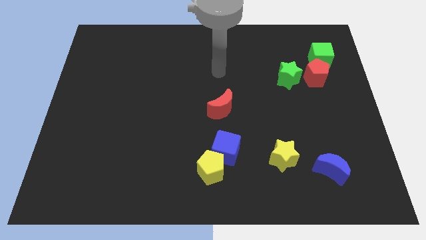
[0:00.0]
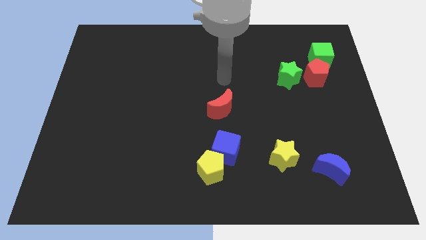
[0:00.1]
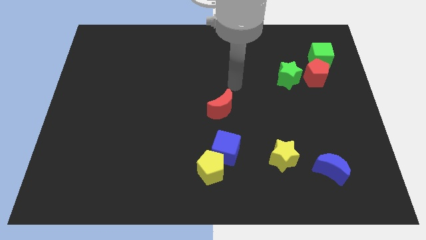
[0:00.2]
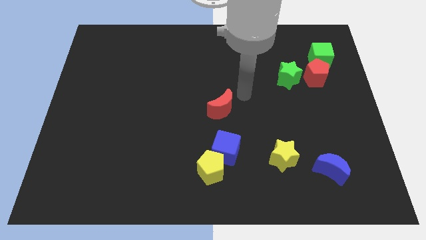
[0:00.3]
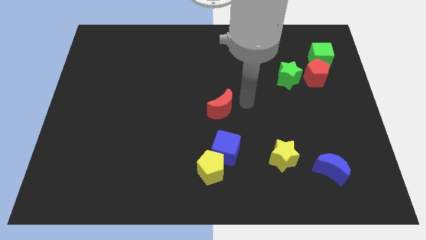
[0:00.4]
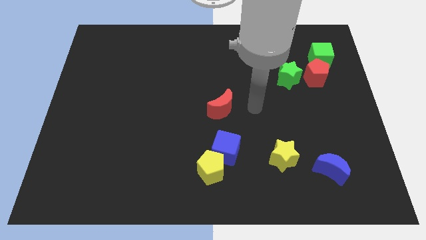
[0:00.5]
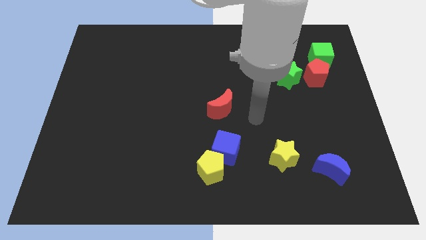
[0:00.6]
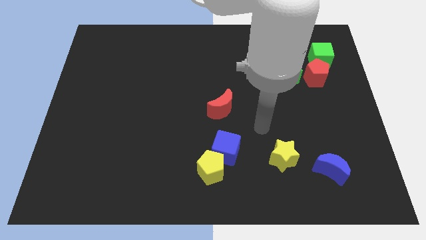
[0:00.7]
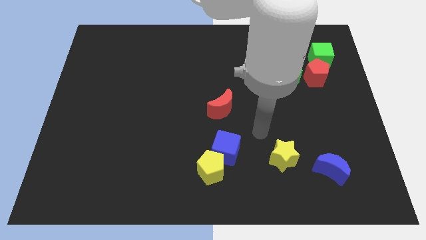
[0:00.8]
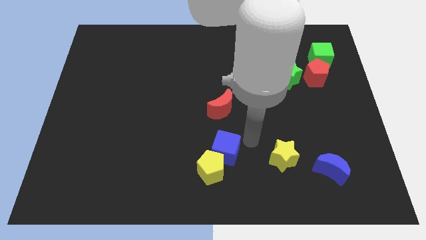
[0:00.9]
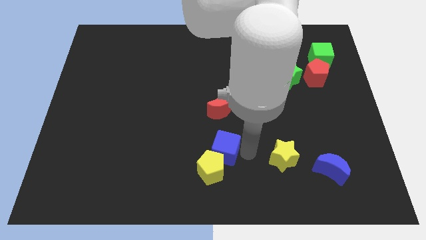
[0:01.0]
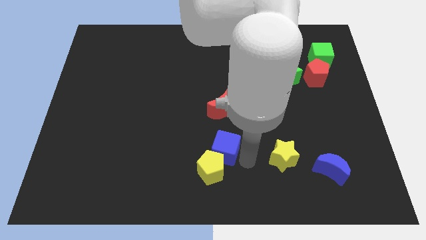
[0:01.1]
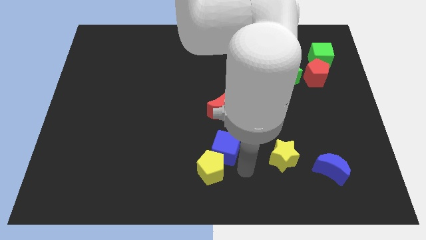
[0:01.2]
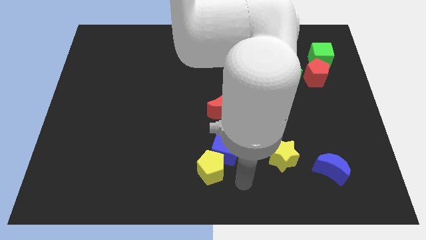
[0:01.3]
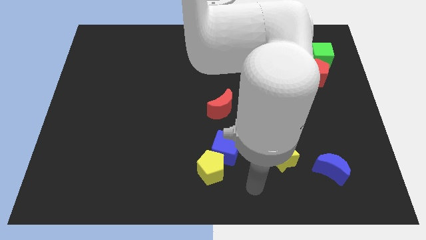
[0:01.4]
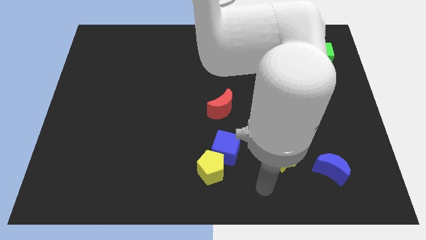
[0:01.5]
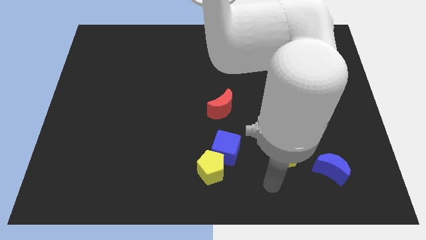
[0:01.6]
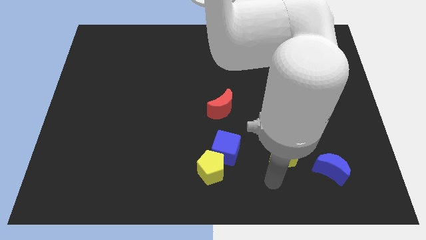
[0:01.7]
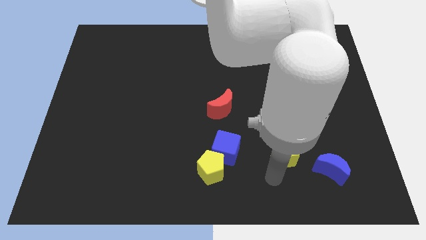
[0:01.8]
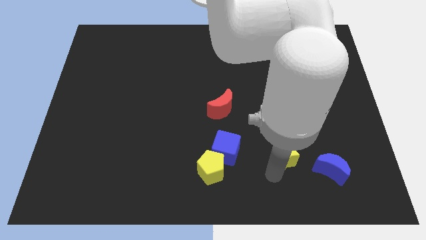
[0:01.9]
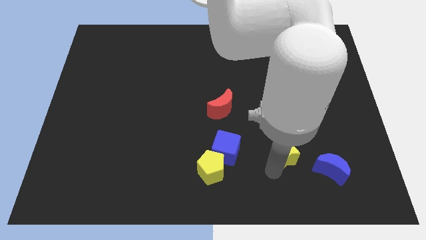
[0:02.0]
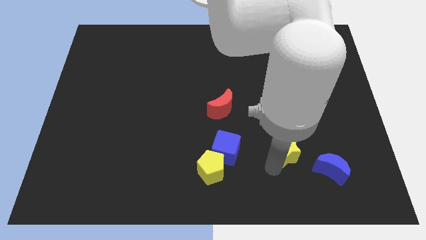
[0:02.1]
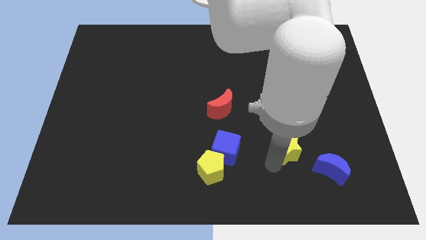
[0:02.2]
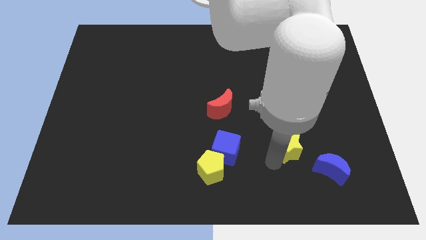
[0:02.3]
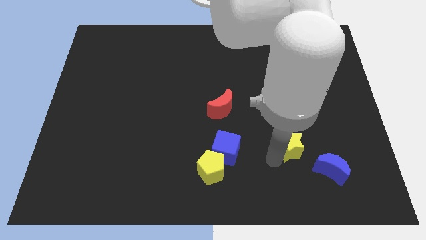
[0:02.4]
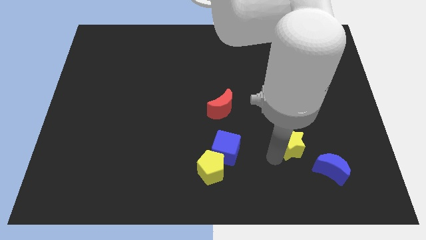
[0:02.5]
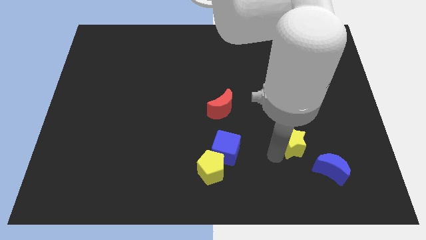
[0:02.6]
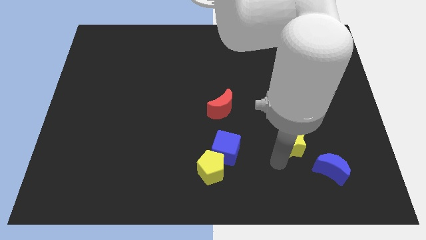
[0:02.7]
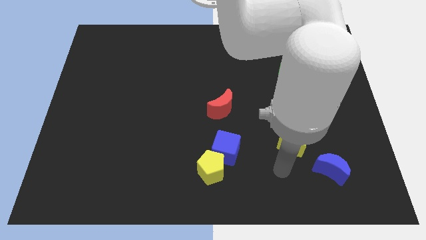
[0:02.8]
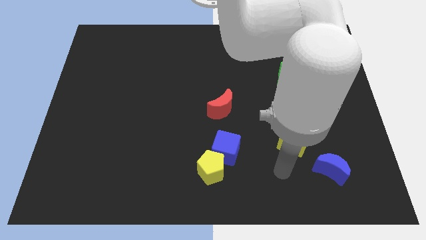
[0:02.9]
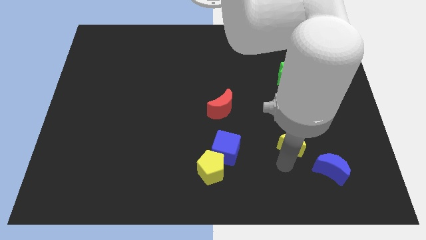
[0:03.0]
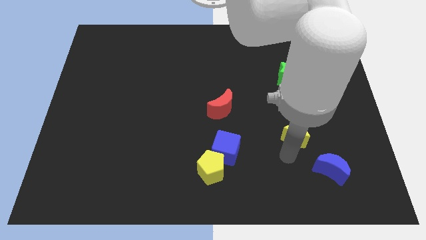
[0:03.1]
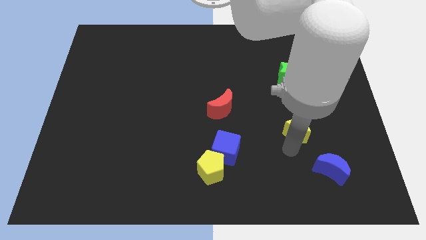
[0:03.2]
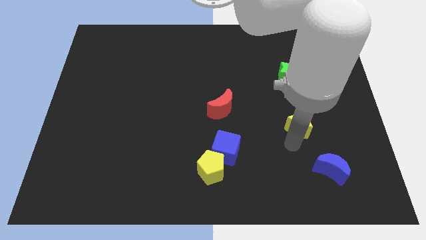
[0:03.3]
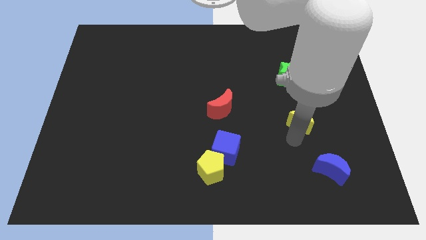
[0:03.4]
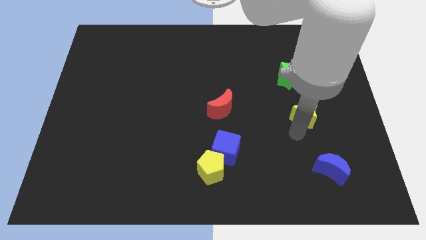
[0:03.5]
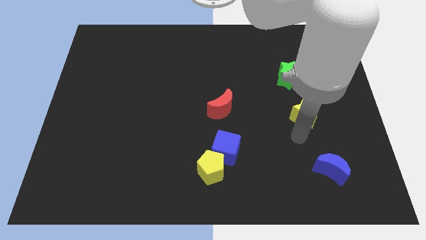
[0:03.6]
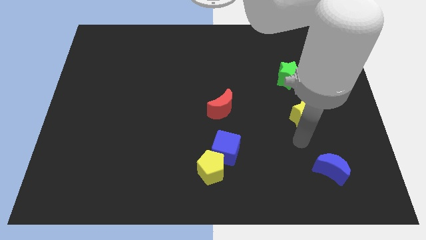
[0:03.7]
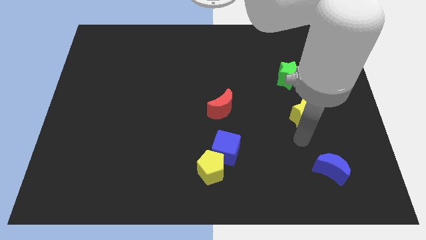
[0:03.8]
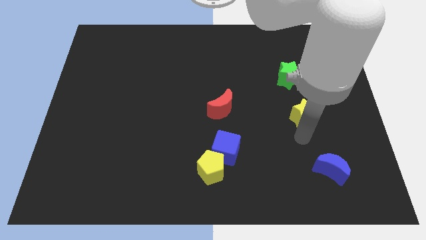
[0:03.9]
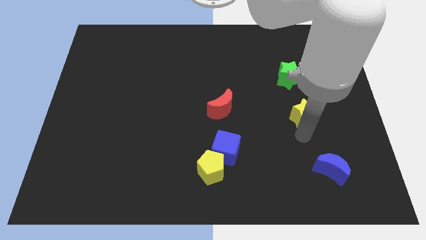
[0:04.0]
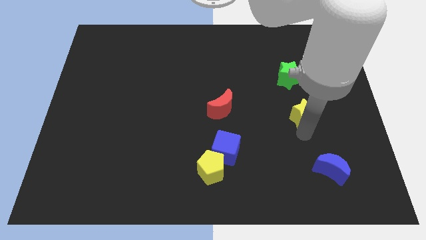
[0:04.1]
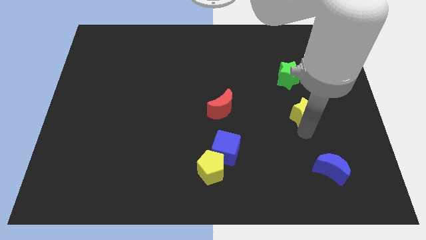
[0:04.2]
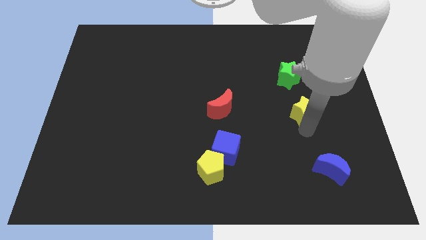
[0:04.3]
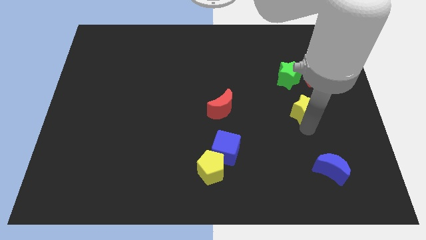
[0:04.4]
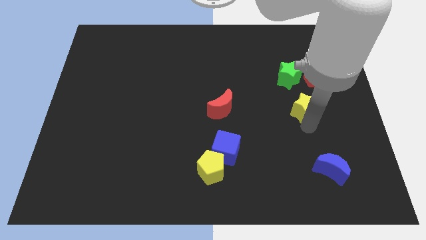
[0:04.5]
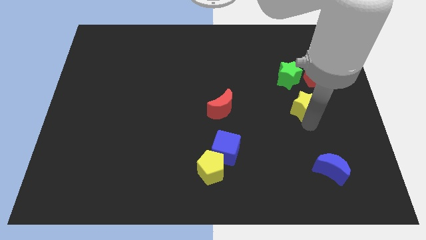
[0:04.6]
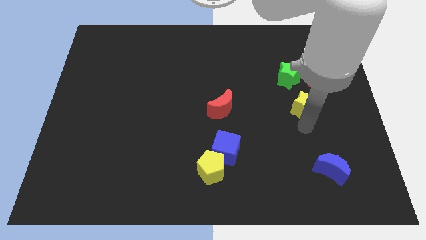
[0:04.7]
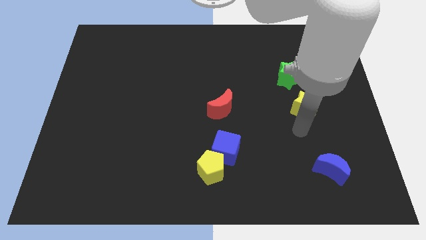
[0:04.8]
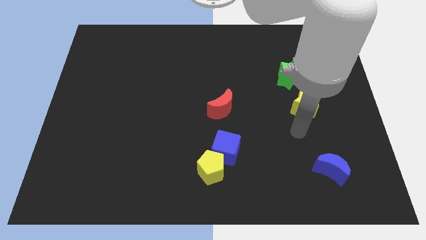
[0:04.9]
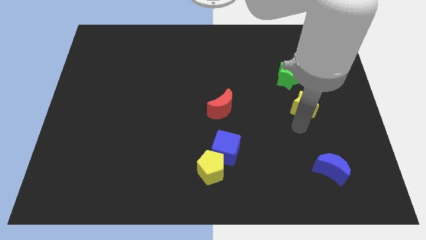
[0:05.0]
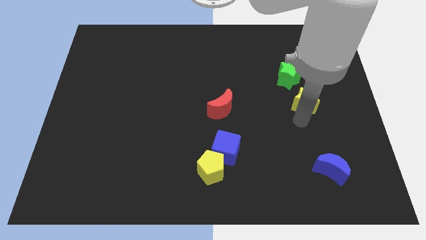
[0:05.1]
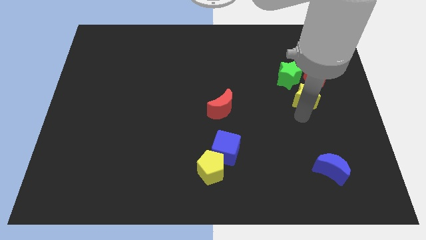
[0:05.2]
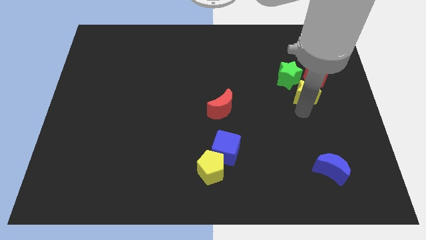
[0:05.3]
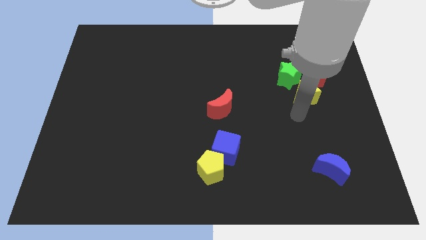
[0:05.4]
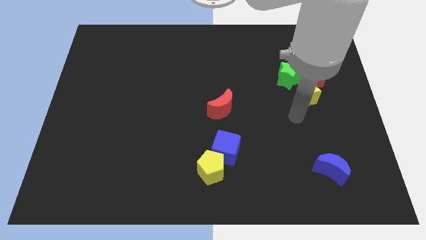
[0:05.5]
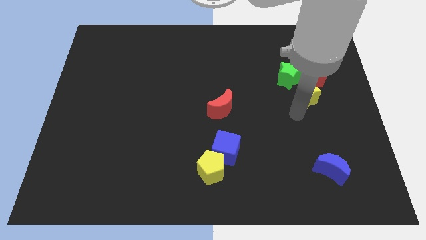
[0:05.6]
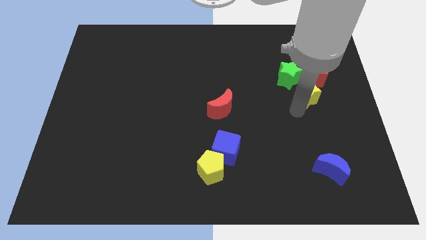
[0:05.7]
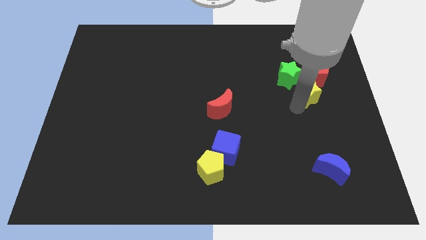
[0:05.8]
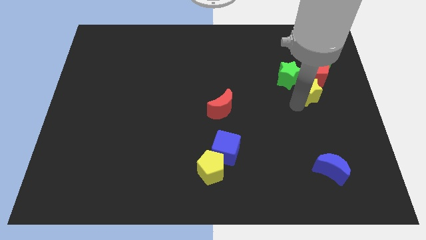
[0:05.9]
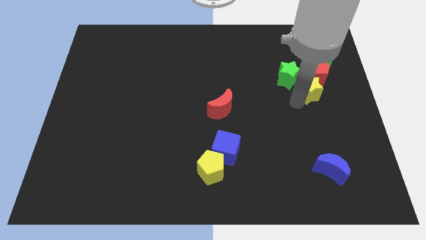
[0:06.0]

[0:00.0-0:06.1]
put the yellow star to the red pentagon

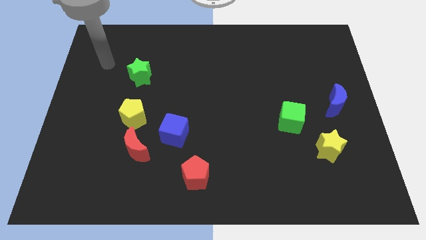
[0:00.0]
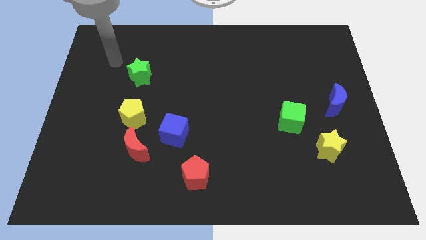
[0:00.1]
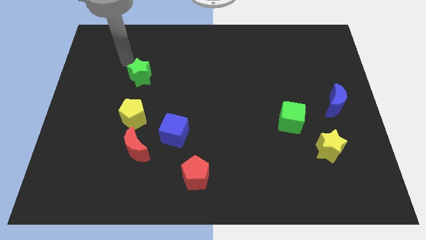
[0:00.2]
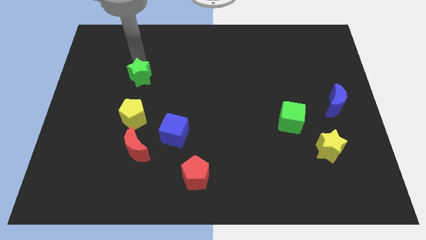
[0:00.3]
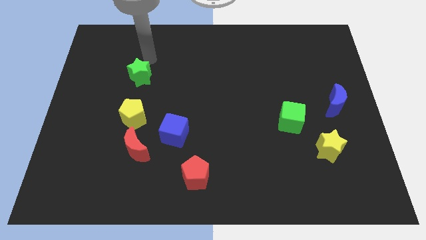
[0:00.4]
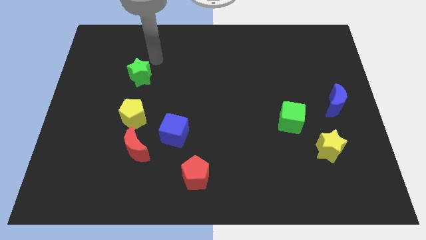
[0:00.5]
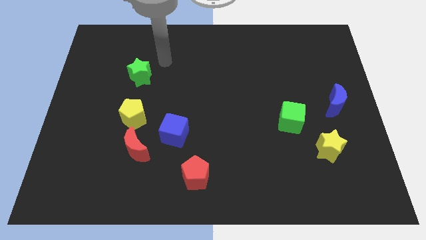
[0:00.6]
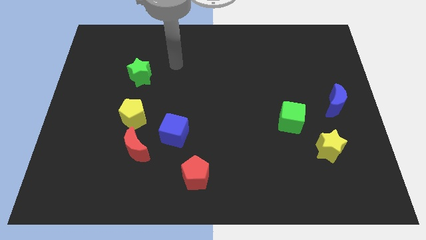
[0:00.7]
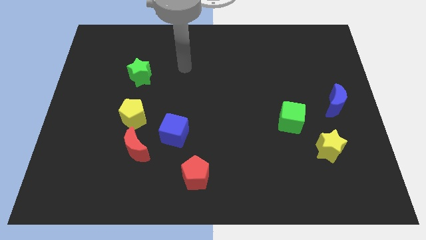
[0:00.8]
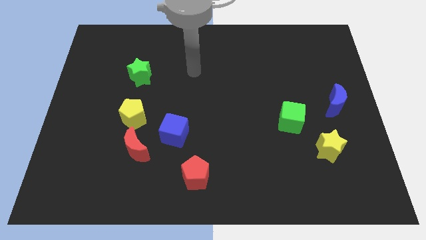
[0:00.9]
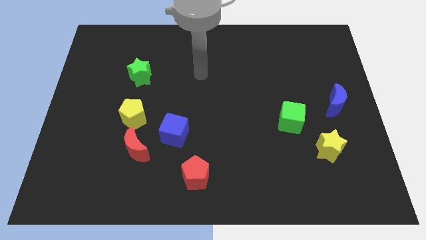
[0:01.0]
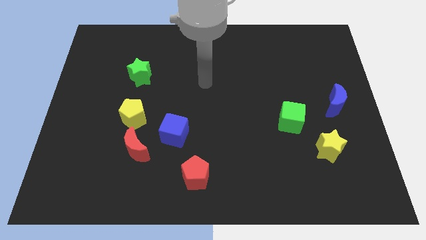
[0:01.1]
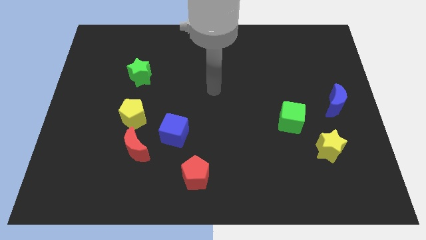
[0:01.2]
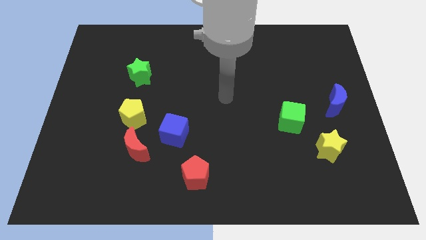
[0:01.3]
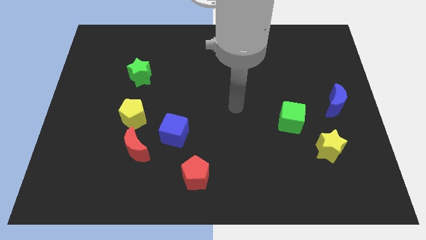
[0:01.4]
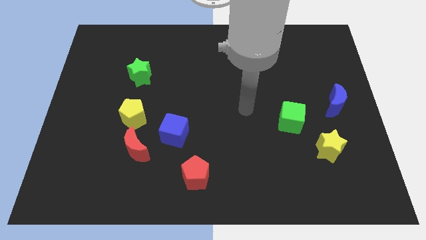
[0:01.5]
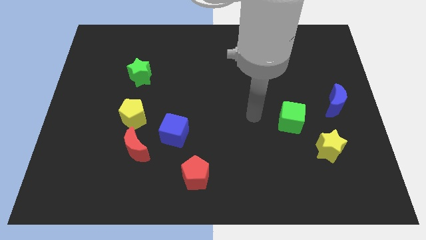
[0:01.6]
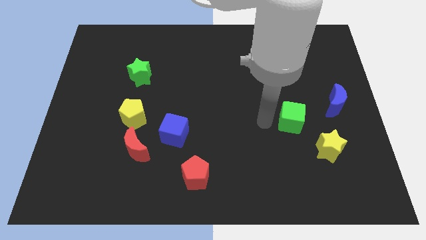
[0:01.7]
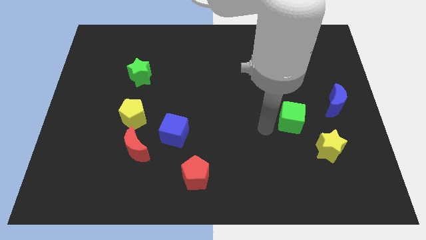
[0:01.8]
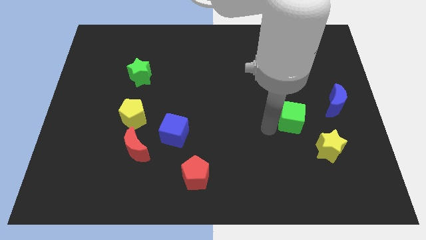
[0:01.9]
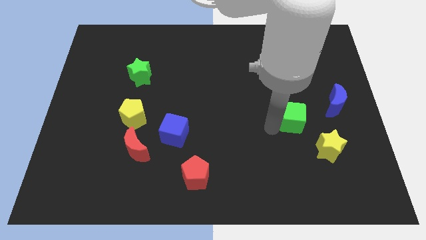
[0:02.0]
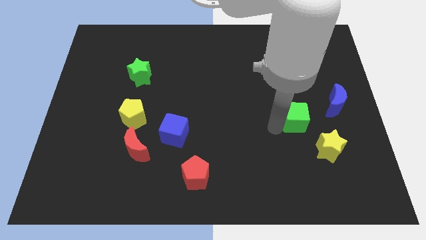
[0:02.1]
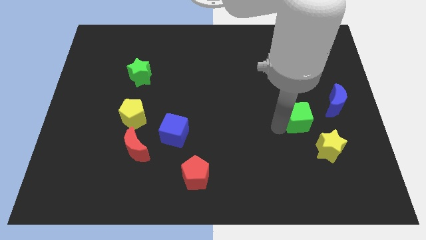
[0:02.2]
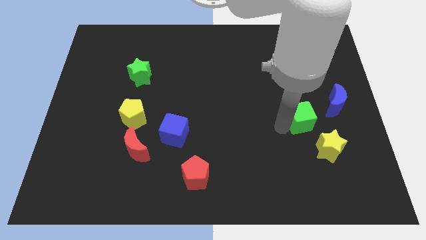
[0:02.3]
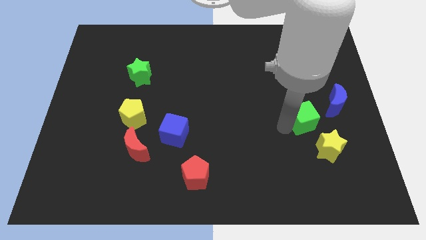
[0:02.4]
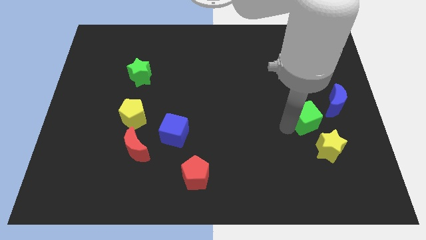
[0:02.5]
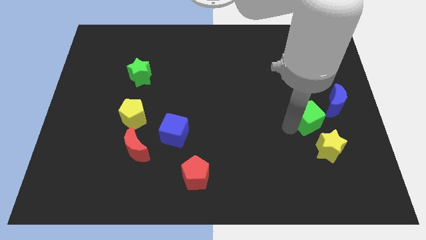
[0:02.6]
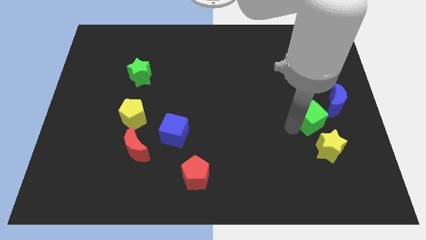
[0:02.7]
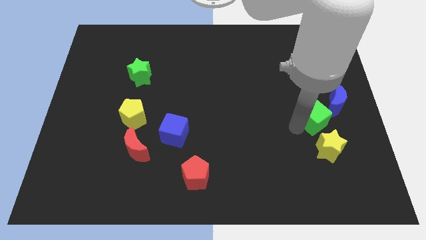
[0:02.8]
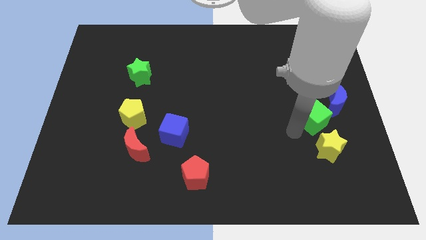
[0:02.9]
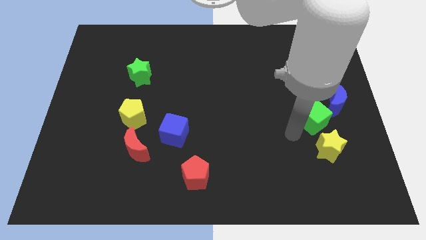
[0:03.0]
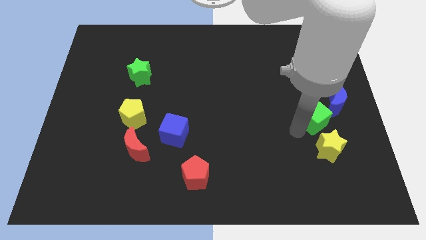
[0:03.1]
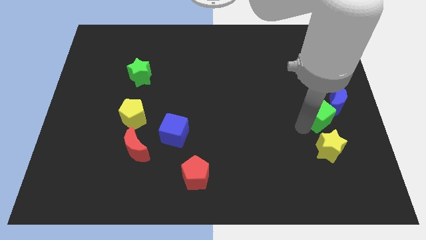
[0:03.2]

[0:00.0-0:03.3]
put the green cube close to the blue moon
